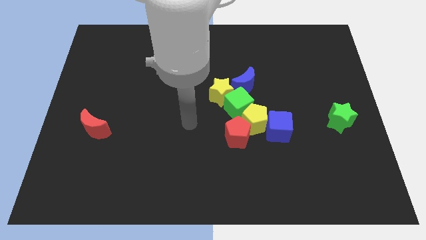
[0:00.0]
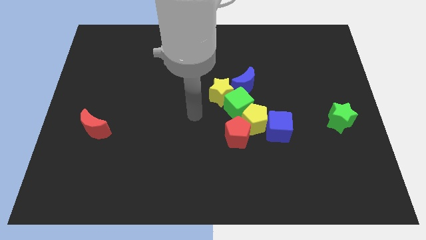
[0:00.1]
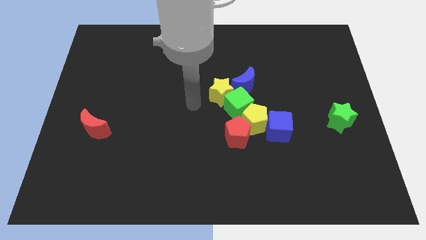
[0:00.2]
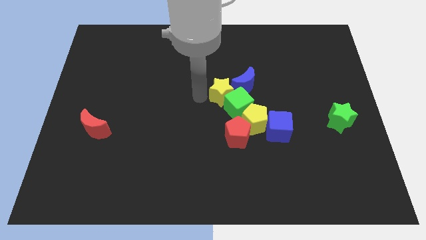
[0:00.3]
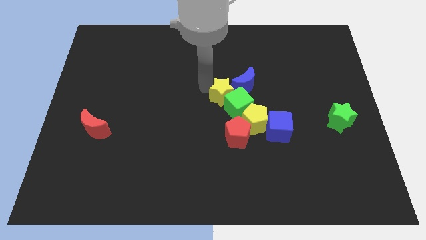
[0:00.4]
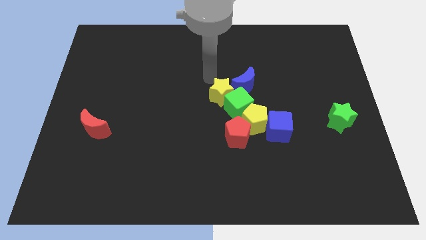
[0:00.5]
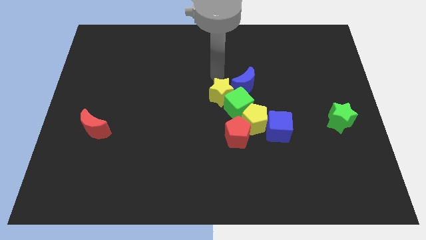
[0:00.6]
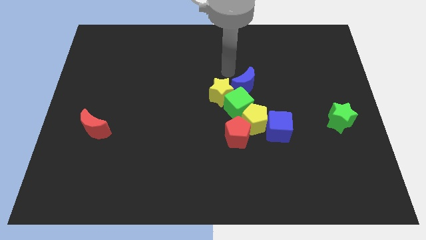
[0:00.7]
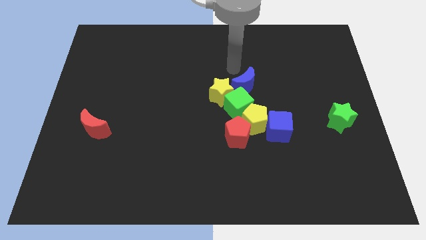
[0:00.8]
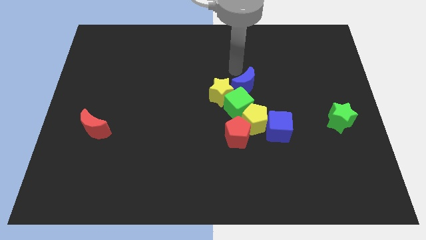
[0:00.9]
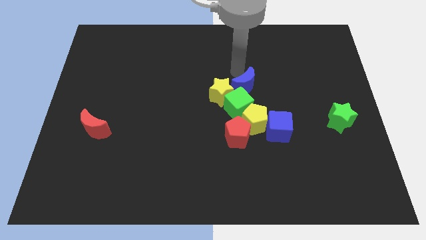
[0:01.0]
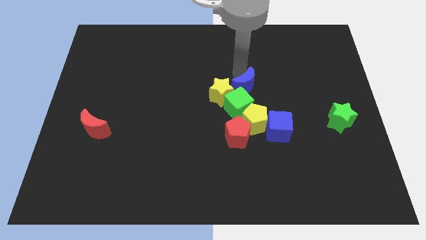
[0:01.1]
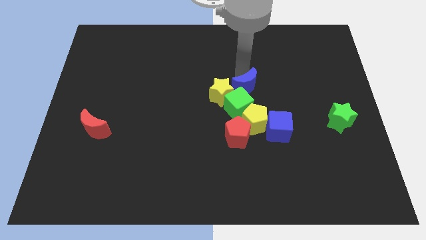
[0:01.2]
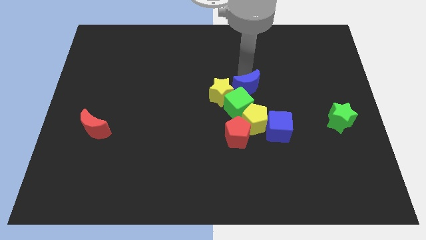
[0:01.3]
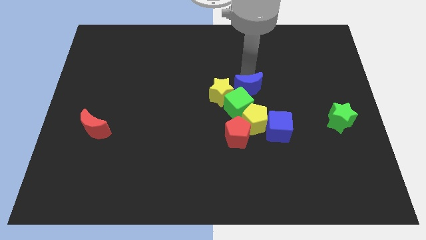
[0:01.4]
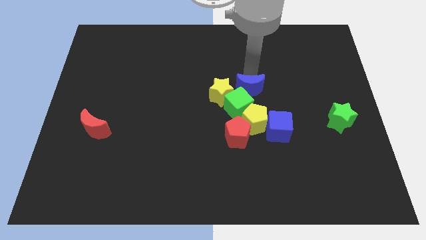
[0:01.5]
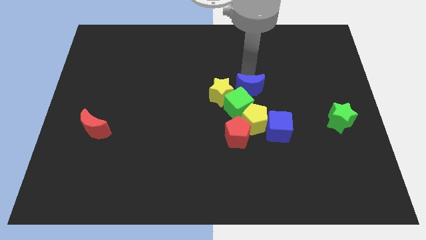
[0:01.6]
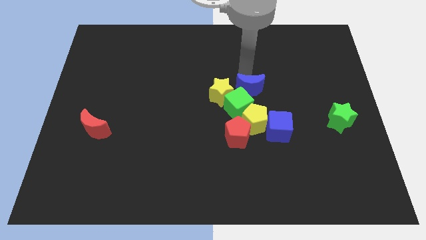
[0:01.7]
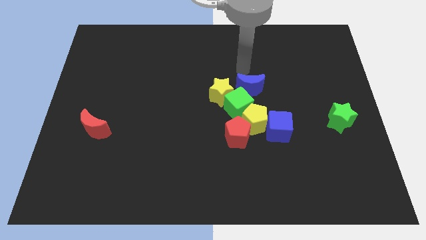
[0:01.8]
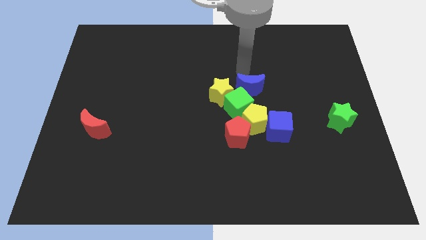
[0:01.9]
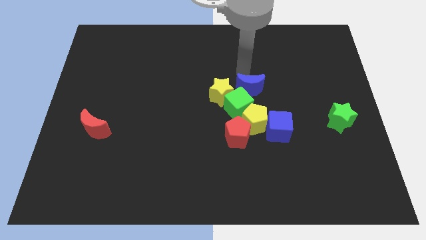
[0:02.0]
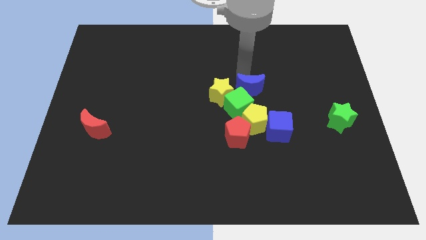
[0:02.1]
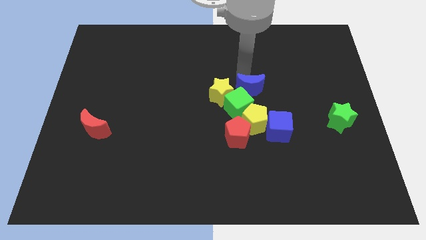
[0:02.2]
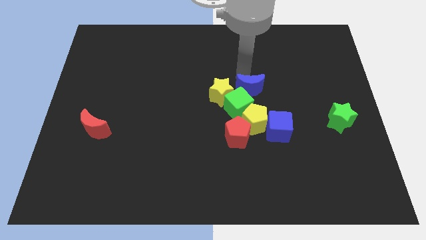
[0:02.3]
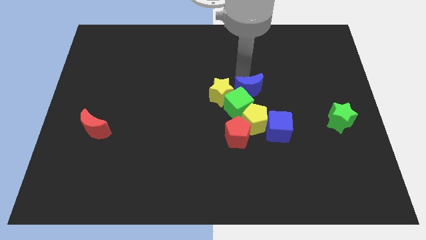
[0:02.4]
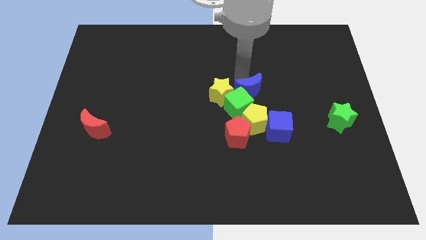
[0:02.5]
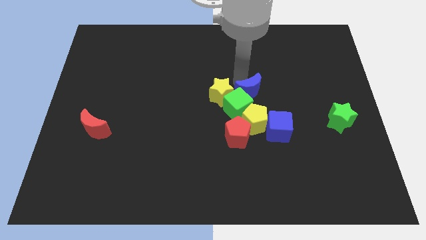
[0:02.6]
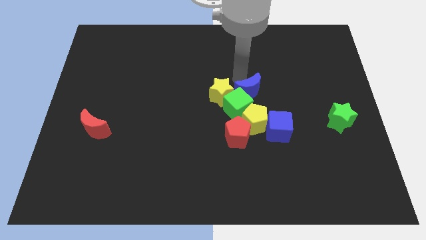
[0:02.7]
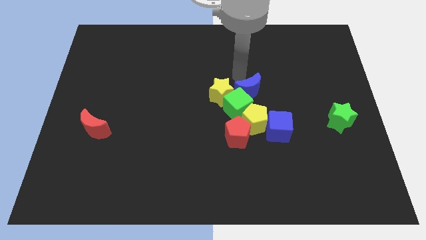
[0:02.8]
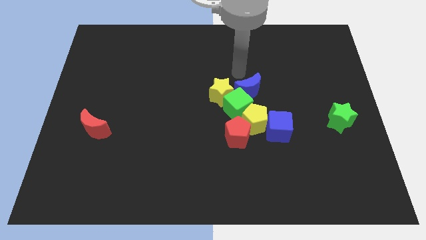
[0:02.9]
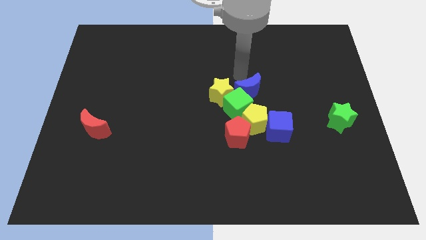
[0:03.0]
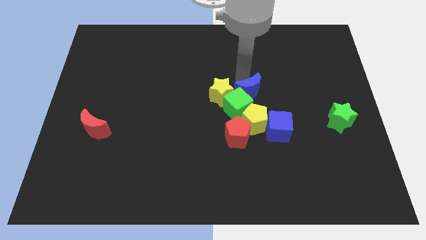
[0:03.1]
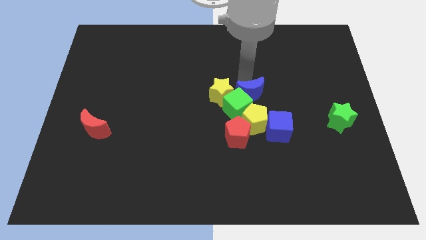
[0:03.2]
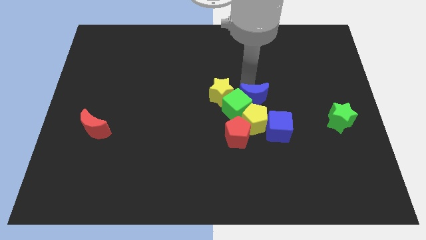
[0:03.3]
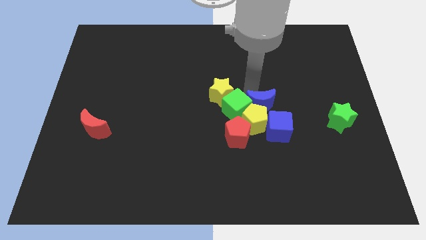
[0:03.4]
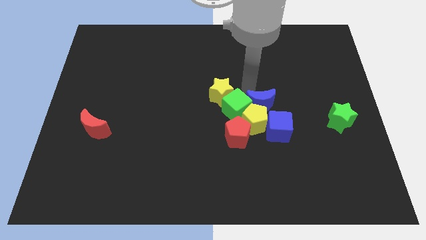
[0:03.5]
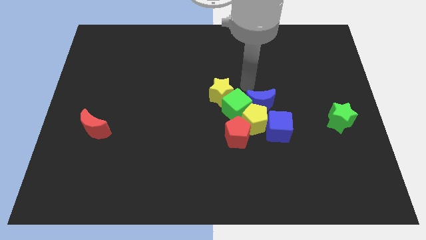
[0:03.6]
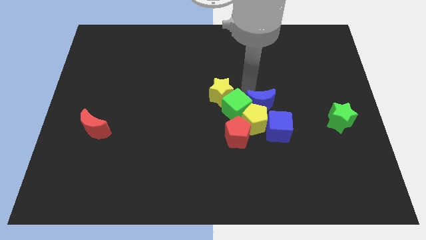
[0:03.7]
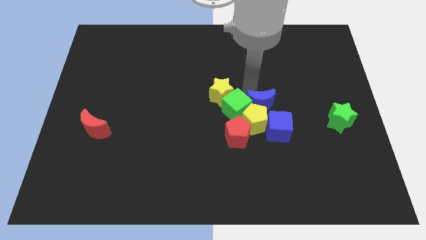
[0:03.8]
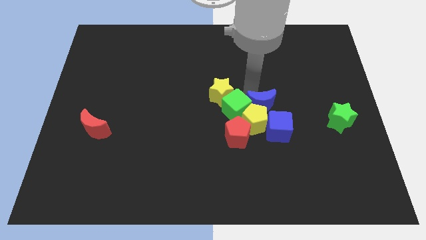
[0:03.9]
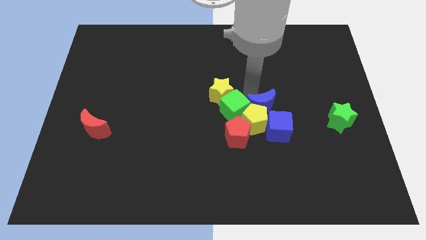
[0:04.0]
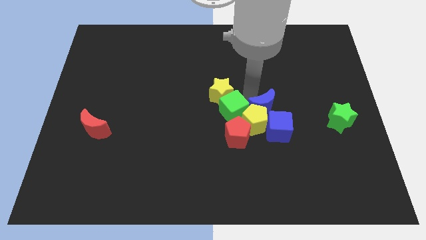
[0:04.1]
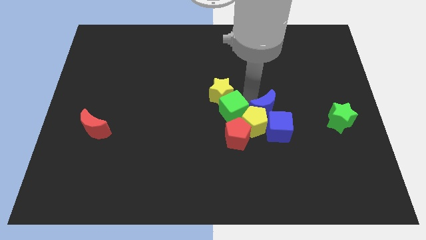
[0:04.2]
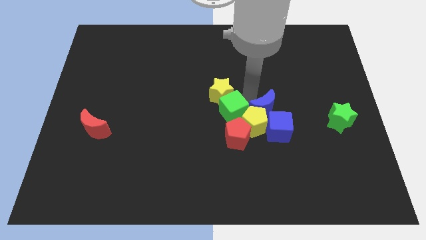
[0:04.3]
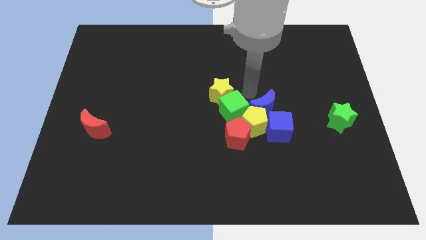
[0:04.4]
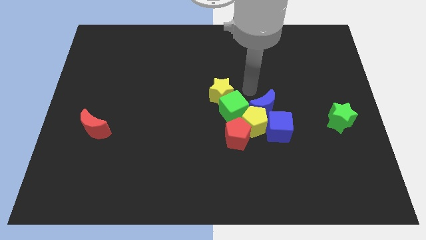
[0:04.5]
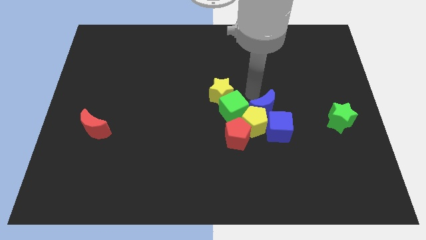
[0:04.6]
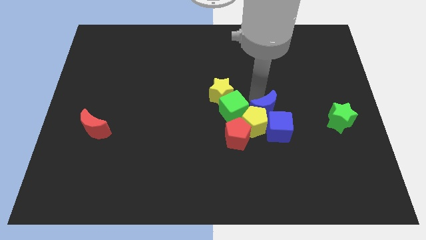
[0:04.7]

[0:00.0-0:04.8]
put the blue moon to the blue cube

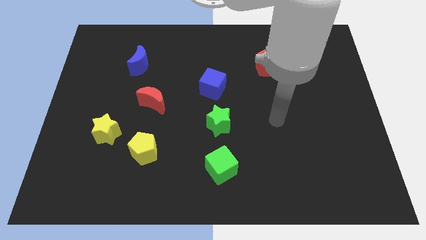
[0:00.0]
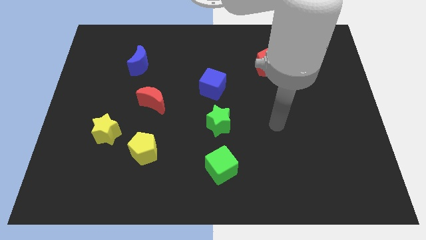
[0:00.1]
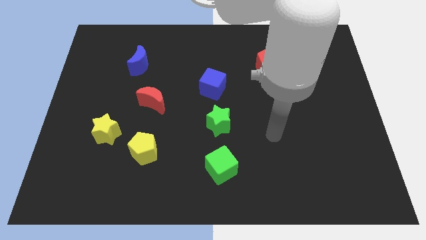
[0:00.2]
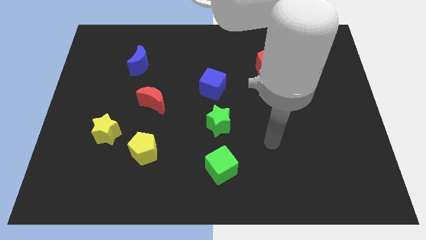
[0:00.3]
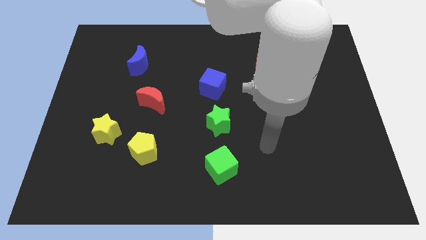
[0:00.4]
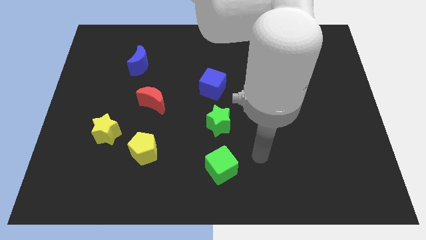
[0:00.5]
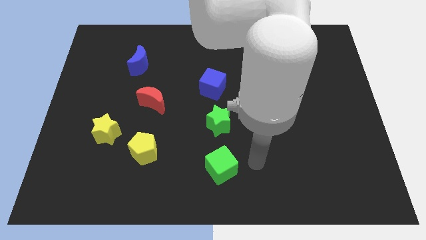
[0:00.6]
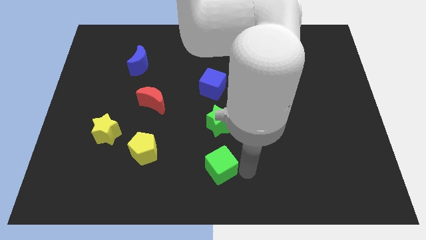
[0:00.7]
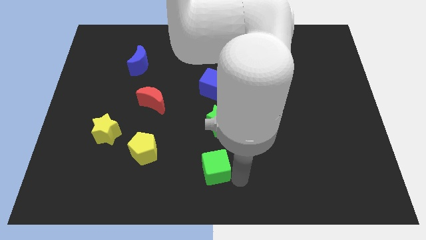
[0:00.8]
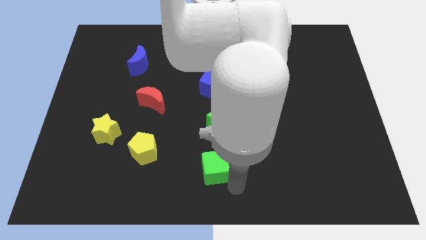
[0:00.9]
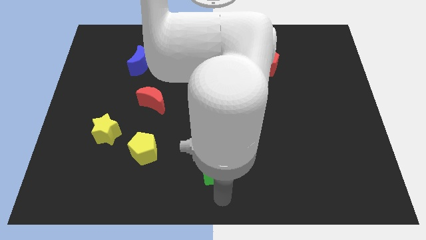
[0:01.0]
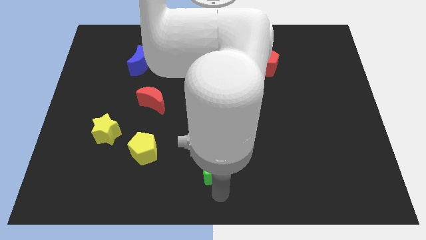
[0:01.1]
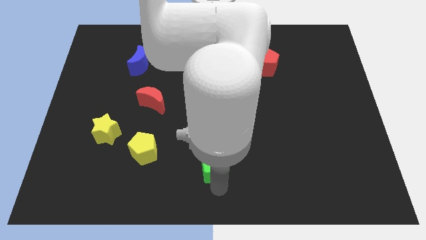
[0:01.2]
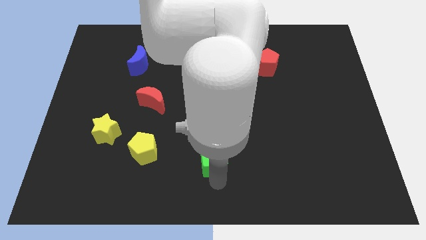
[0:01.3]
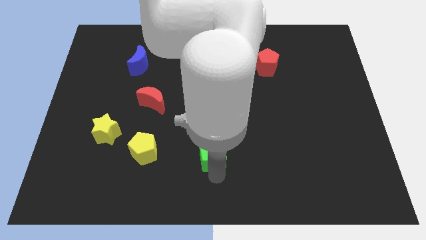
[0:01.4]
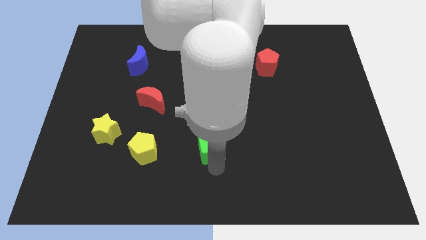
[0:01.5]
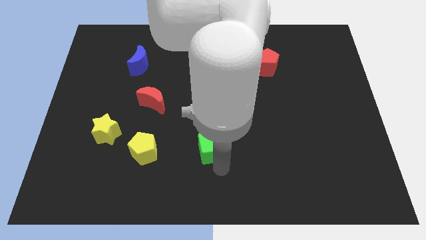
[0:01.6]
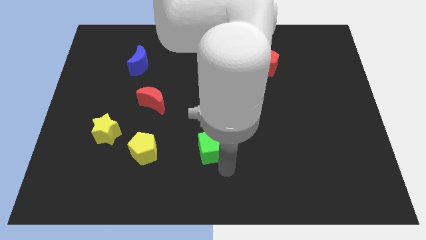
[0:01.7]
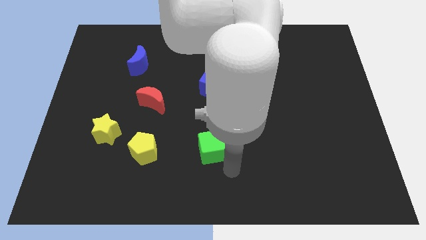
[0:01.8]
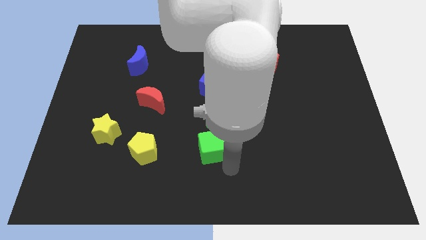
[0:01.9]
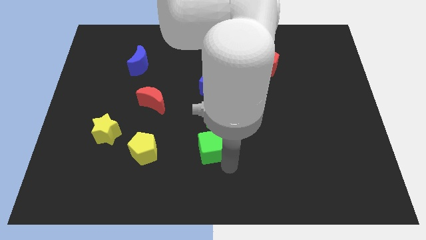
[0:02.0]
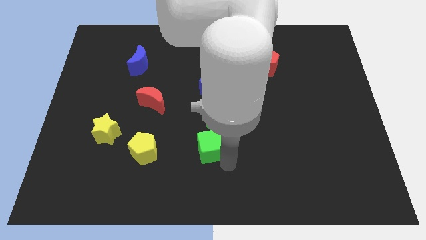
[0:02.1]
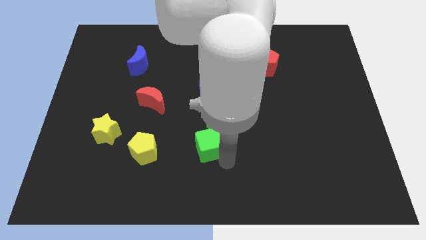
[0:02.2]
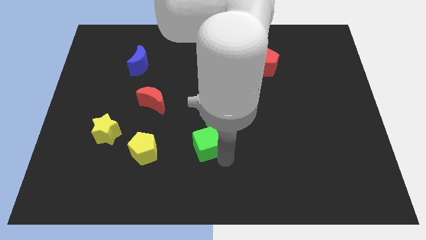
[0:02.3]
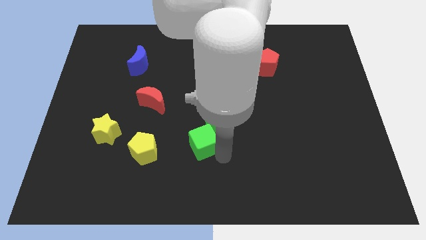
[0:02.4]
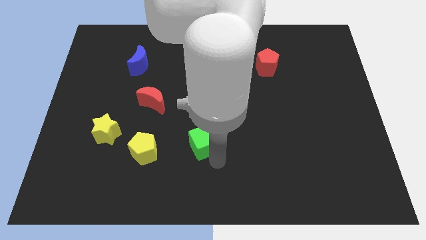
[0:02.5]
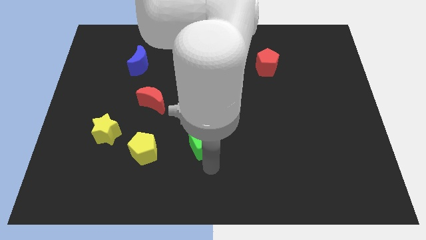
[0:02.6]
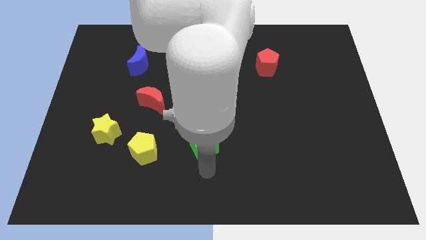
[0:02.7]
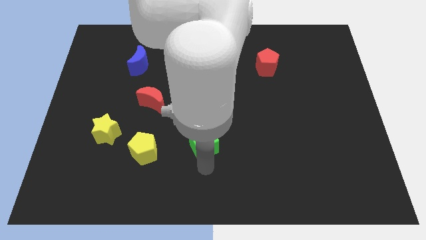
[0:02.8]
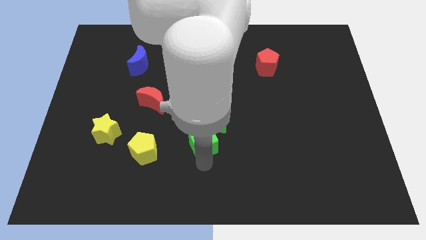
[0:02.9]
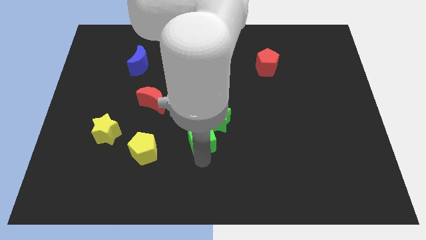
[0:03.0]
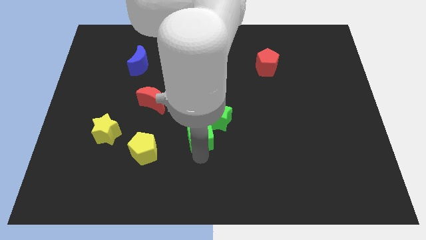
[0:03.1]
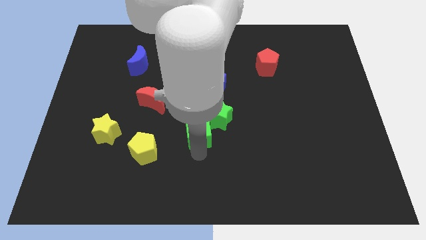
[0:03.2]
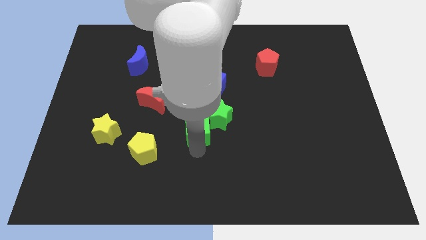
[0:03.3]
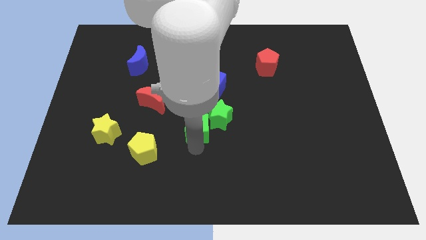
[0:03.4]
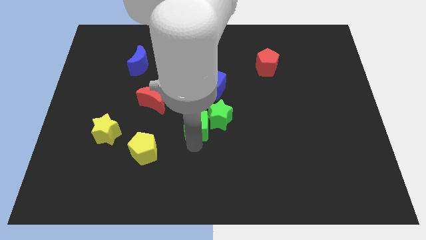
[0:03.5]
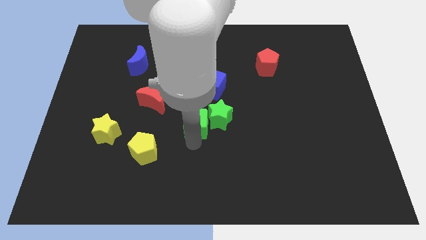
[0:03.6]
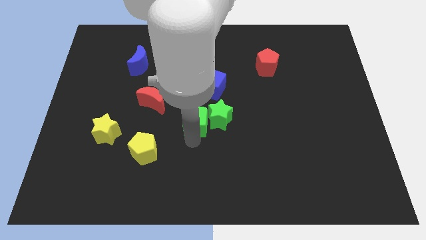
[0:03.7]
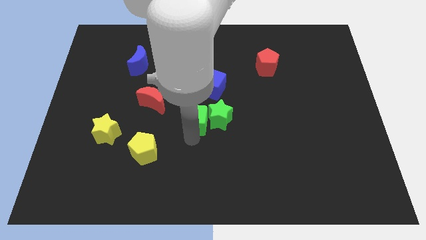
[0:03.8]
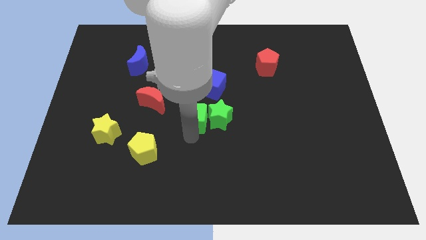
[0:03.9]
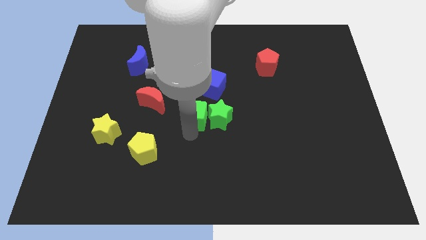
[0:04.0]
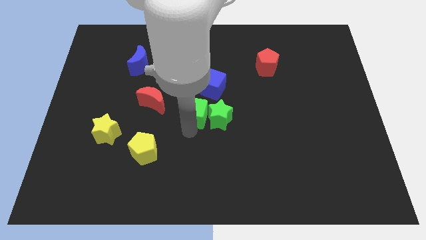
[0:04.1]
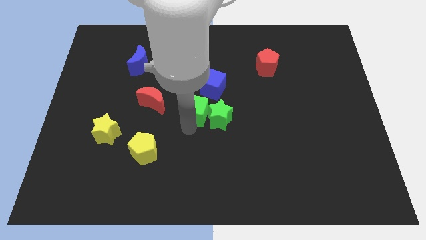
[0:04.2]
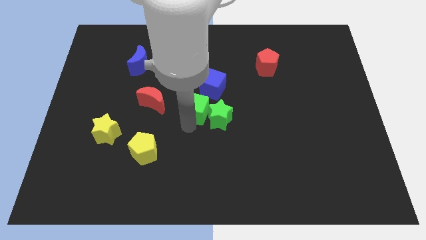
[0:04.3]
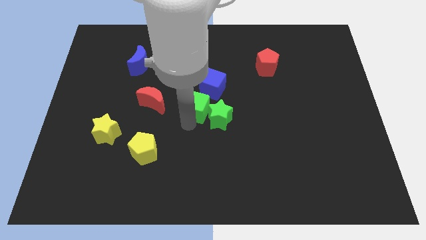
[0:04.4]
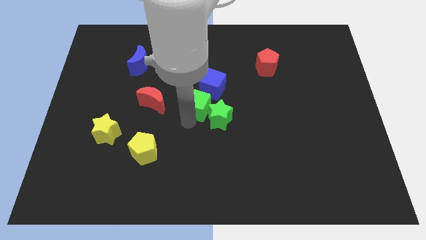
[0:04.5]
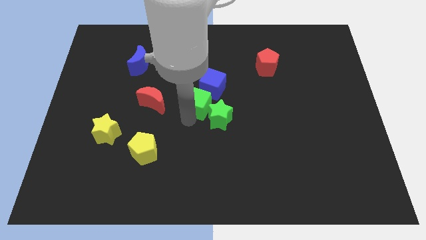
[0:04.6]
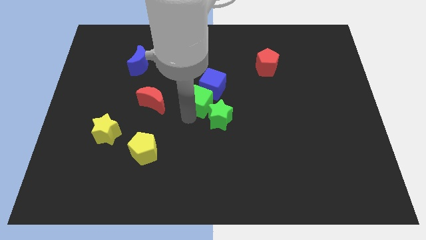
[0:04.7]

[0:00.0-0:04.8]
push the green cube towards the blue cube
